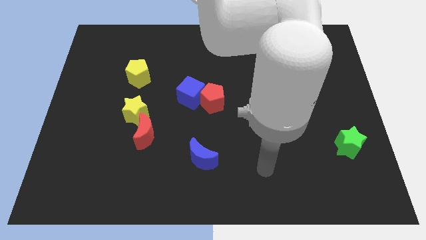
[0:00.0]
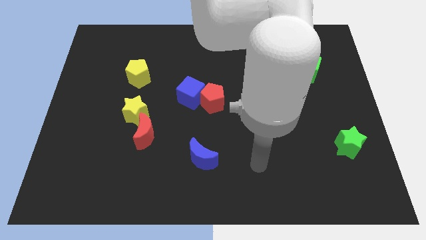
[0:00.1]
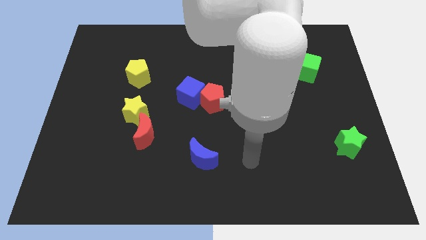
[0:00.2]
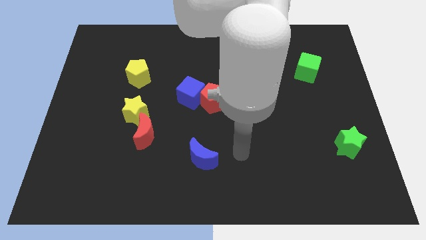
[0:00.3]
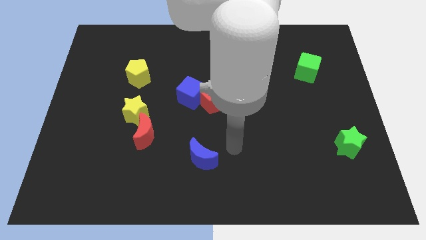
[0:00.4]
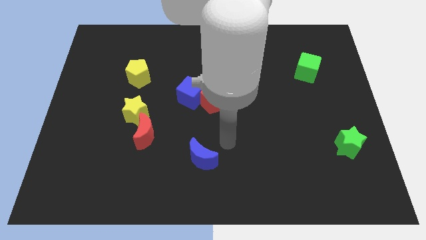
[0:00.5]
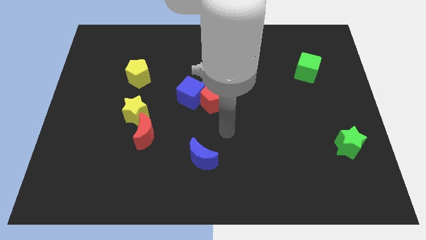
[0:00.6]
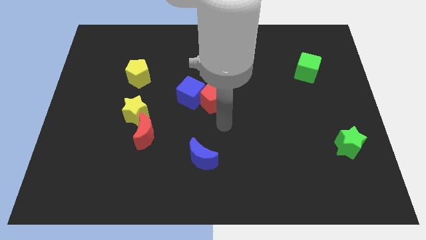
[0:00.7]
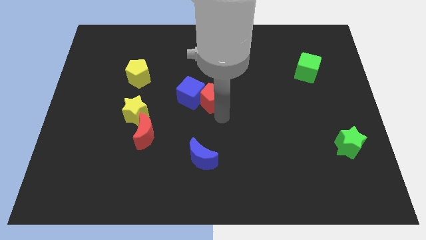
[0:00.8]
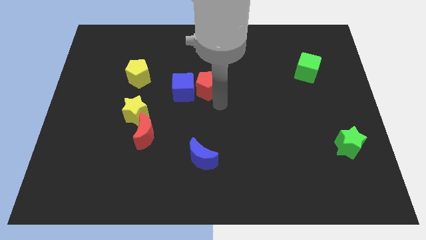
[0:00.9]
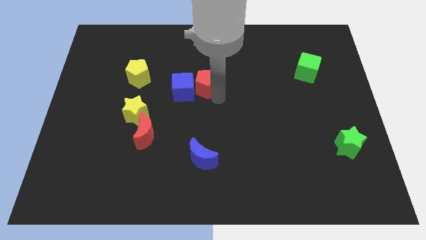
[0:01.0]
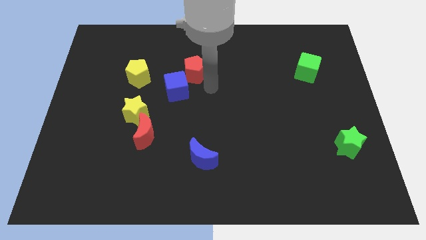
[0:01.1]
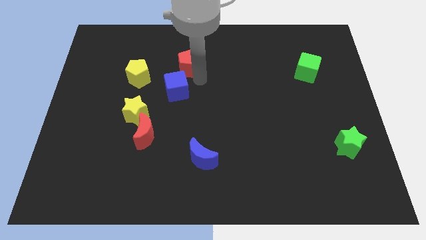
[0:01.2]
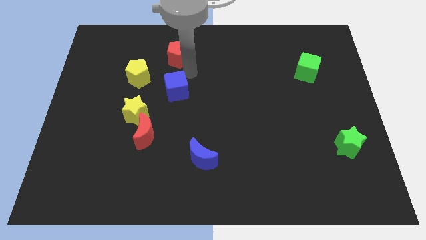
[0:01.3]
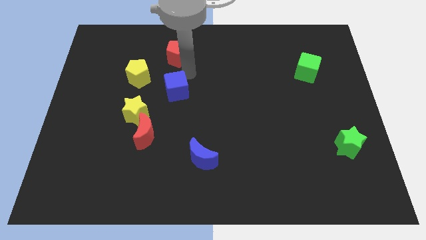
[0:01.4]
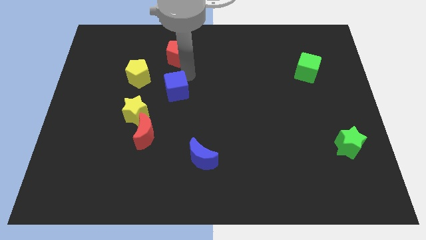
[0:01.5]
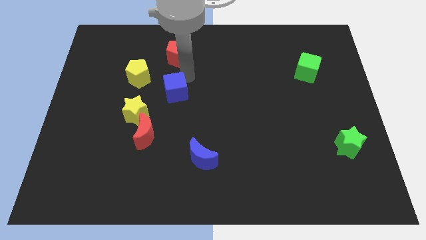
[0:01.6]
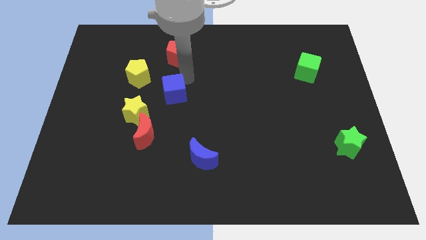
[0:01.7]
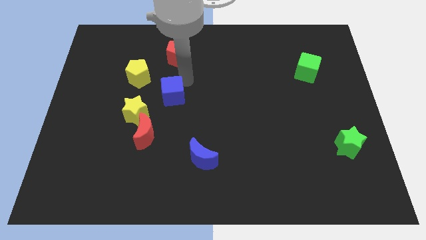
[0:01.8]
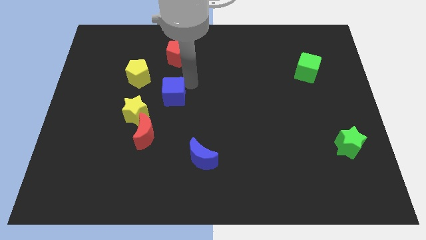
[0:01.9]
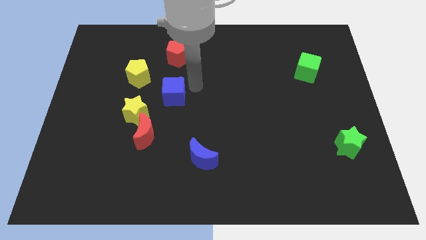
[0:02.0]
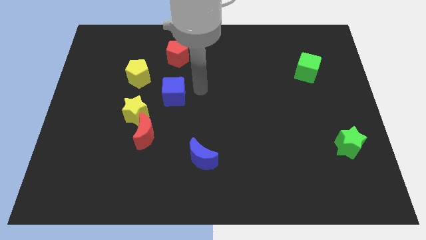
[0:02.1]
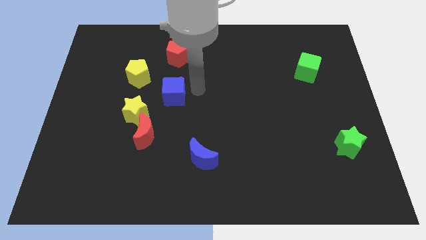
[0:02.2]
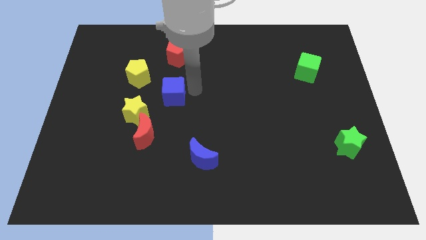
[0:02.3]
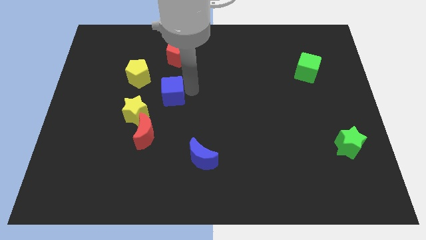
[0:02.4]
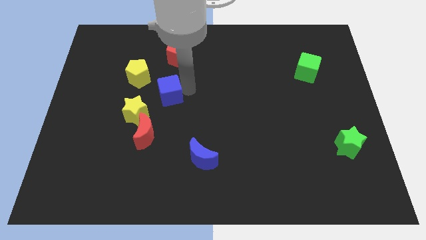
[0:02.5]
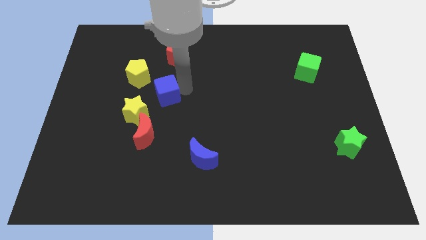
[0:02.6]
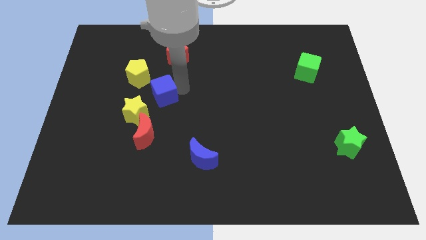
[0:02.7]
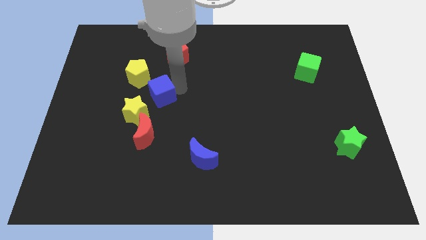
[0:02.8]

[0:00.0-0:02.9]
slightly slide the blue cube left

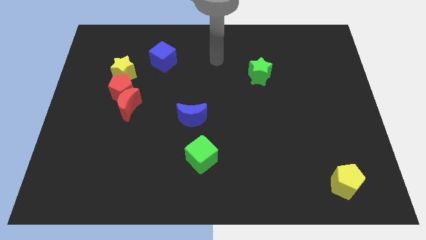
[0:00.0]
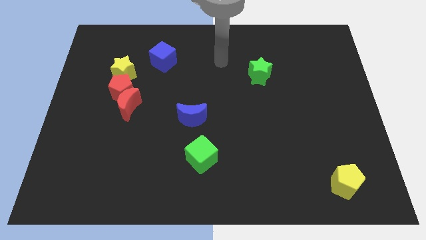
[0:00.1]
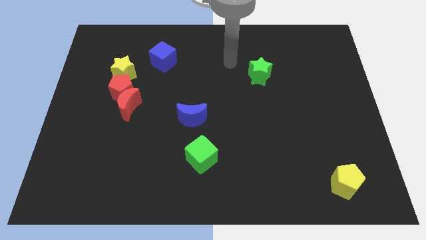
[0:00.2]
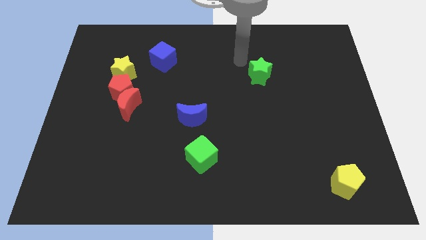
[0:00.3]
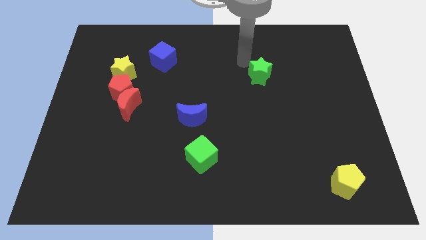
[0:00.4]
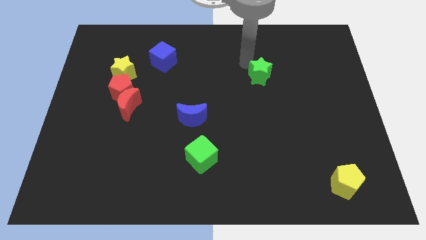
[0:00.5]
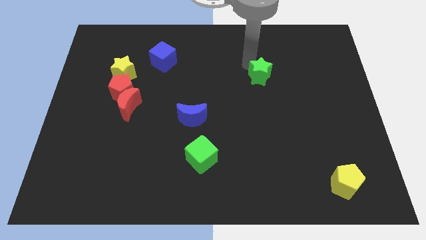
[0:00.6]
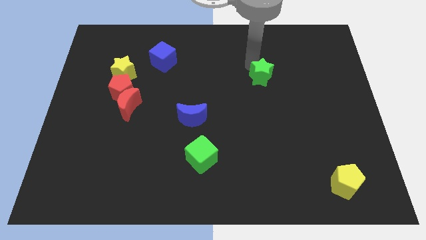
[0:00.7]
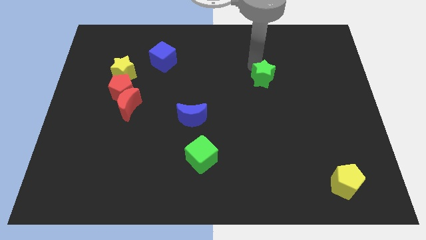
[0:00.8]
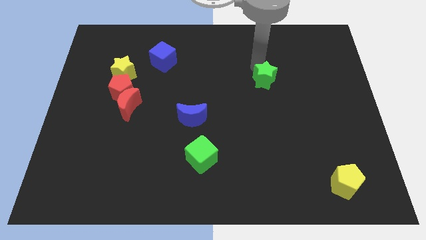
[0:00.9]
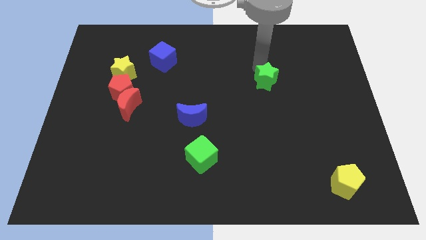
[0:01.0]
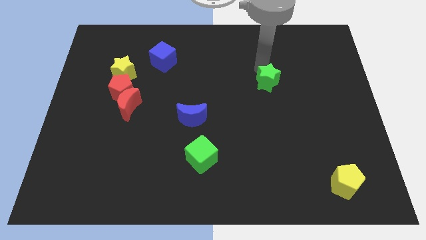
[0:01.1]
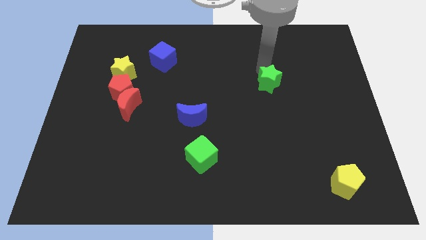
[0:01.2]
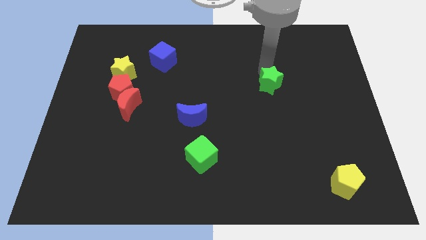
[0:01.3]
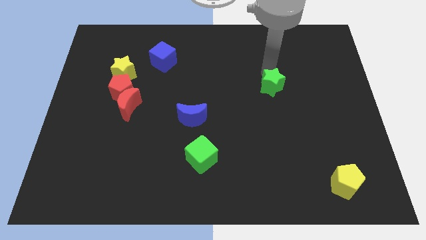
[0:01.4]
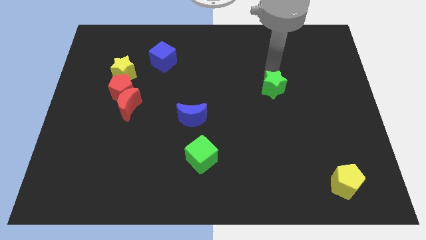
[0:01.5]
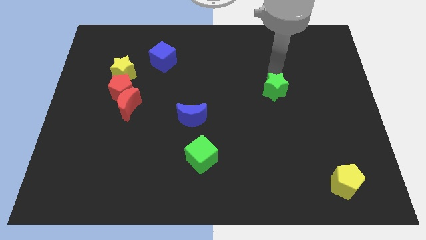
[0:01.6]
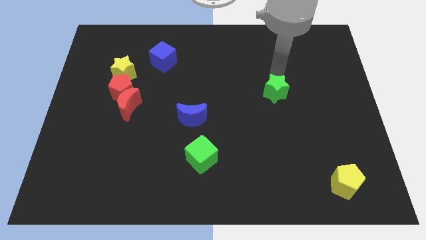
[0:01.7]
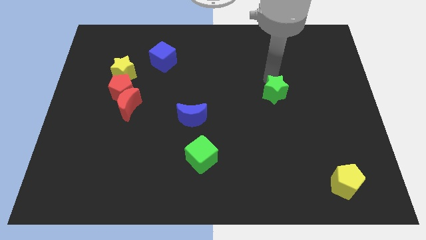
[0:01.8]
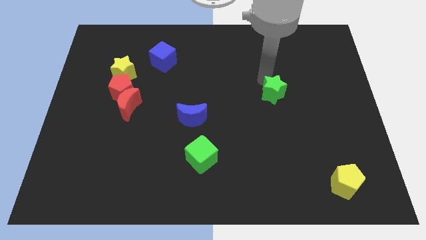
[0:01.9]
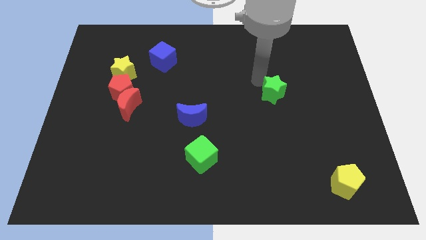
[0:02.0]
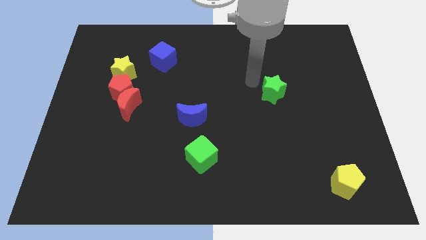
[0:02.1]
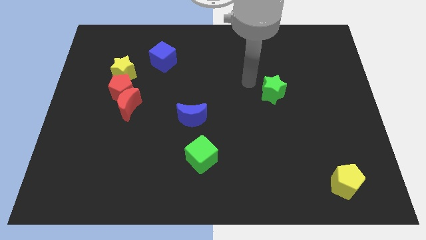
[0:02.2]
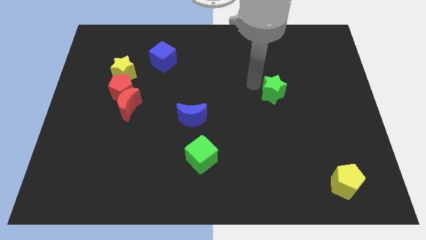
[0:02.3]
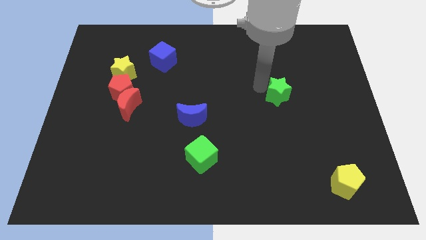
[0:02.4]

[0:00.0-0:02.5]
slide the green star down and right slightly

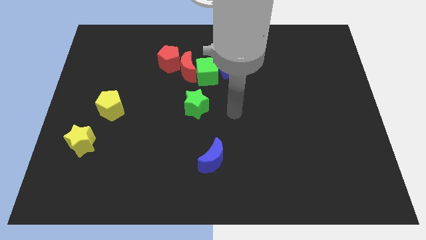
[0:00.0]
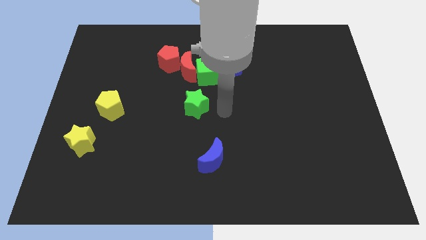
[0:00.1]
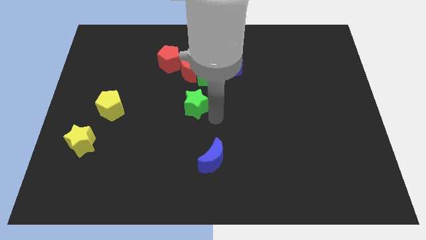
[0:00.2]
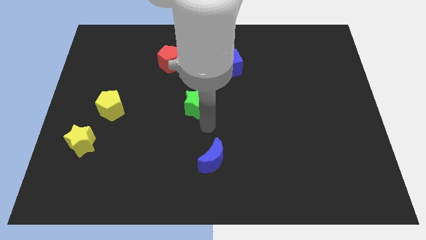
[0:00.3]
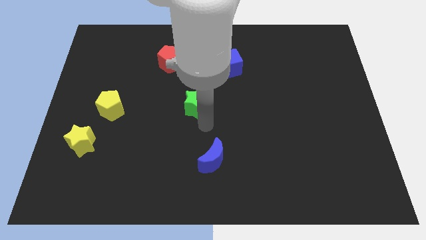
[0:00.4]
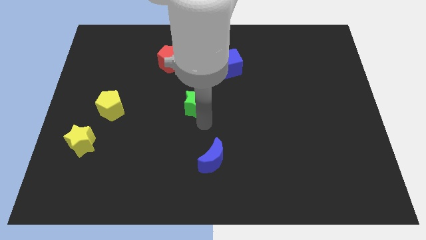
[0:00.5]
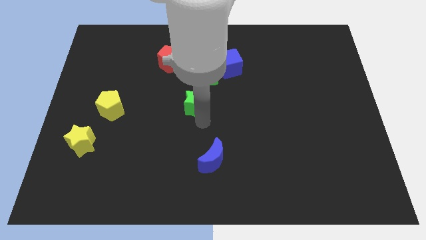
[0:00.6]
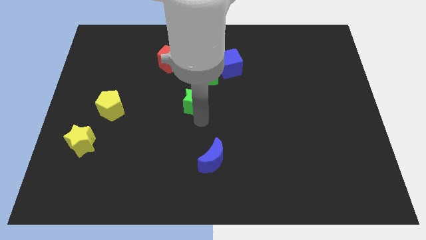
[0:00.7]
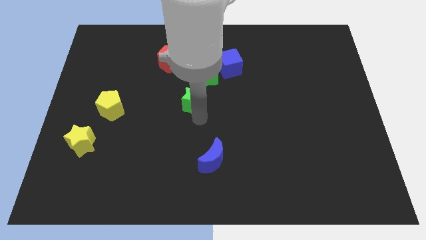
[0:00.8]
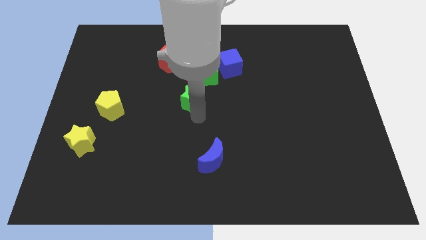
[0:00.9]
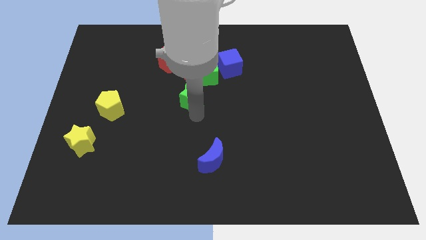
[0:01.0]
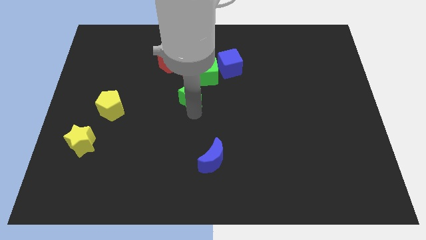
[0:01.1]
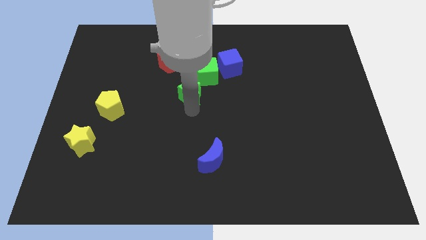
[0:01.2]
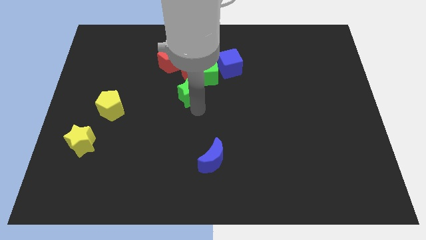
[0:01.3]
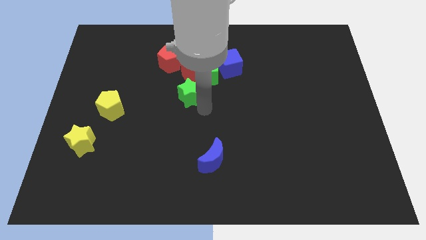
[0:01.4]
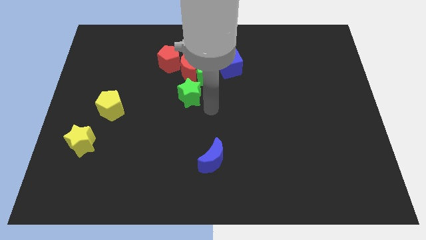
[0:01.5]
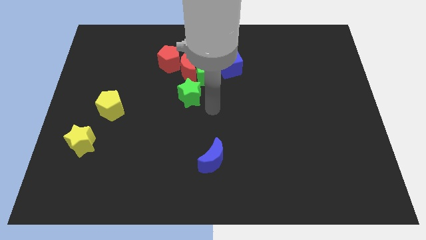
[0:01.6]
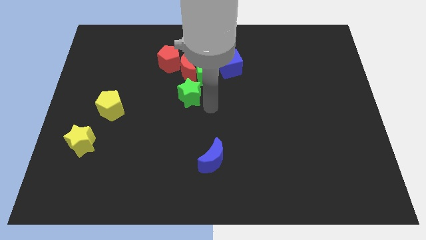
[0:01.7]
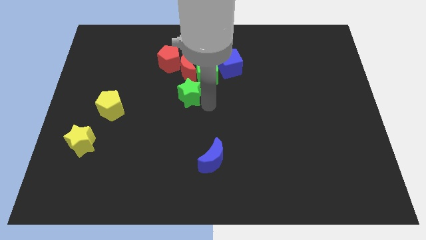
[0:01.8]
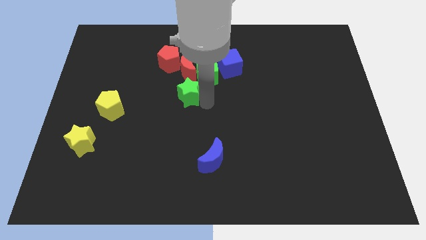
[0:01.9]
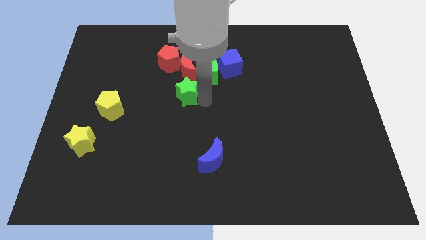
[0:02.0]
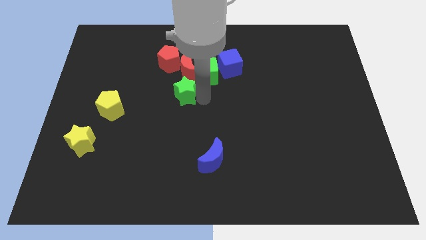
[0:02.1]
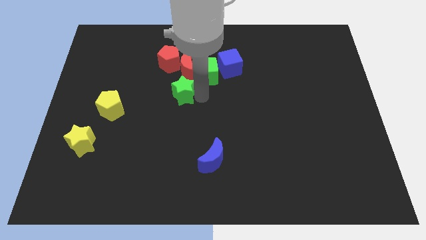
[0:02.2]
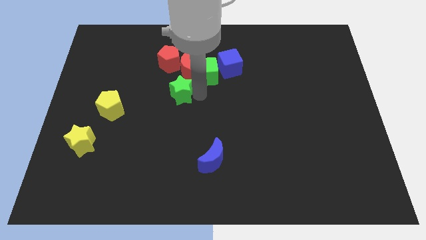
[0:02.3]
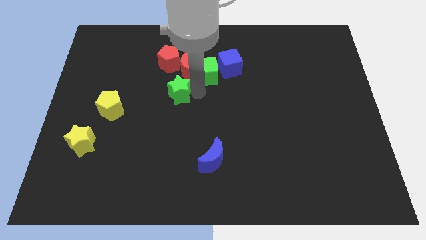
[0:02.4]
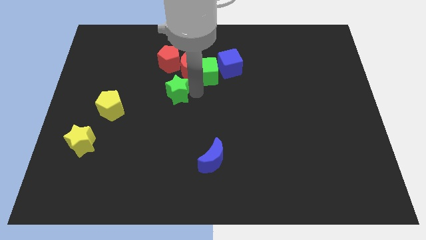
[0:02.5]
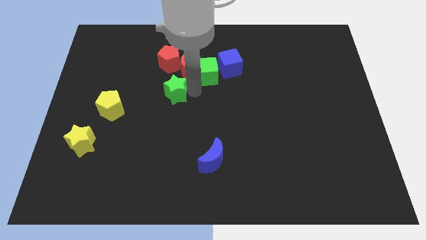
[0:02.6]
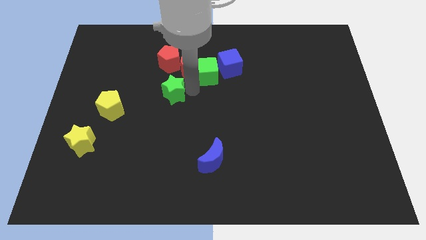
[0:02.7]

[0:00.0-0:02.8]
move the green star a little diagonally up and left
